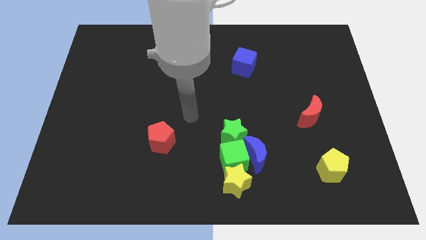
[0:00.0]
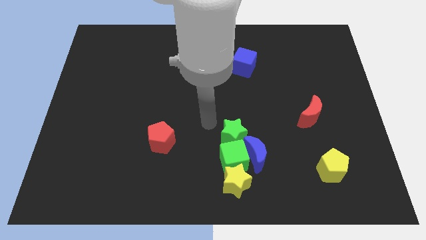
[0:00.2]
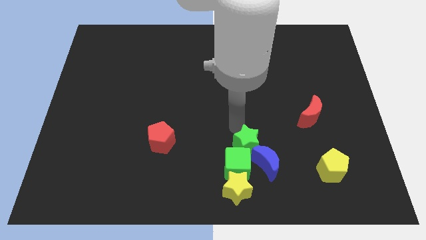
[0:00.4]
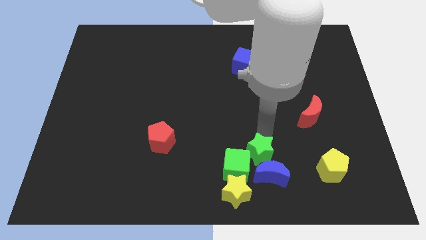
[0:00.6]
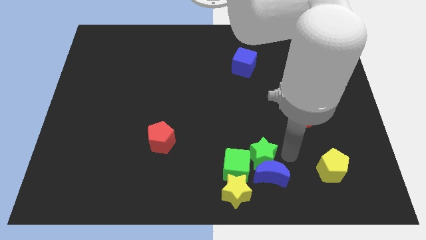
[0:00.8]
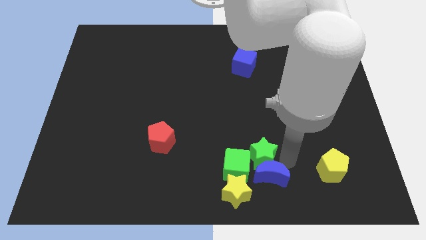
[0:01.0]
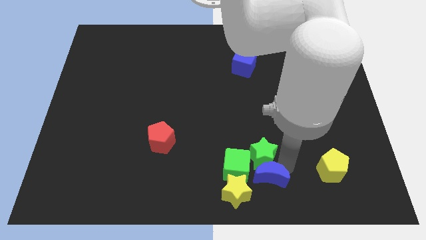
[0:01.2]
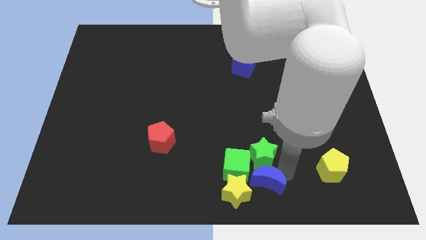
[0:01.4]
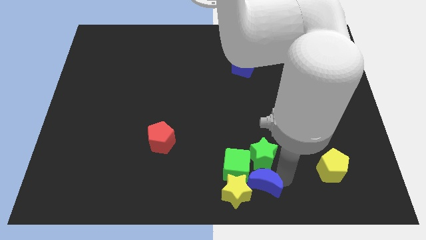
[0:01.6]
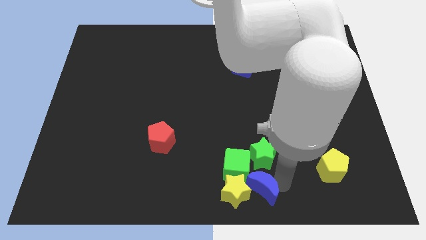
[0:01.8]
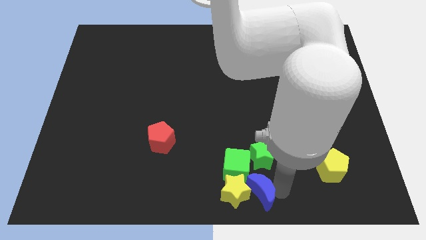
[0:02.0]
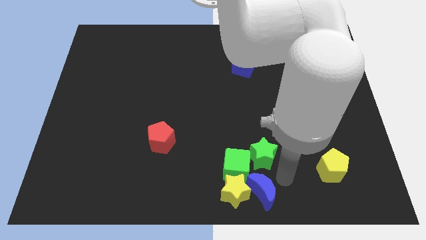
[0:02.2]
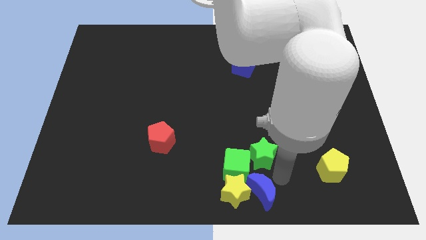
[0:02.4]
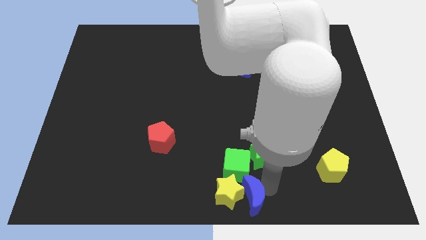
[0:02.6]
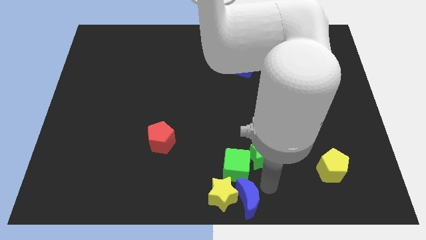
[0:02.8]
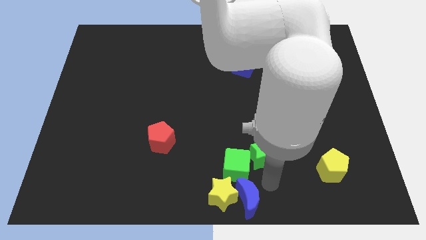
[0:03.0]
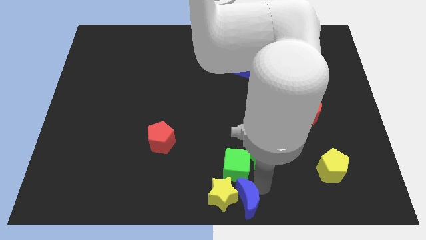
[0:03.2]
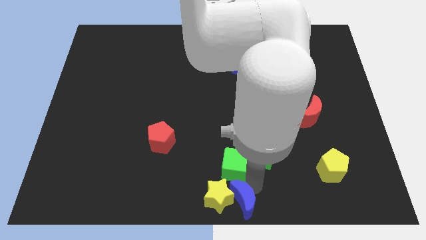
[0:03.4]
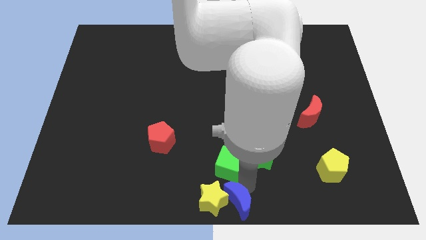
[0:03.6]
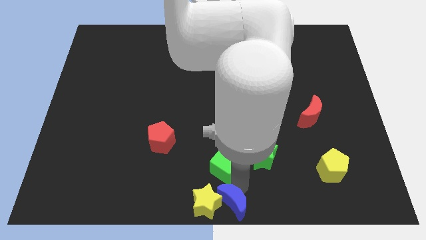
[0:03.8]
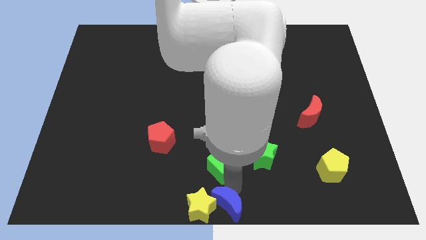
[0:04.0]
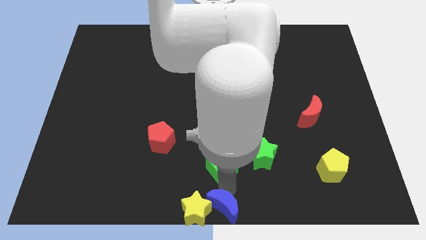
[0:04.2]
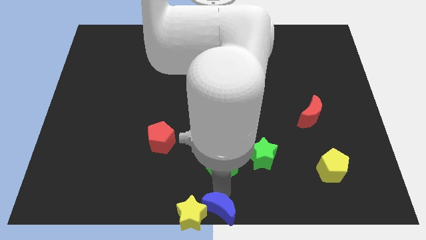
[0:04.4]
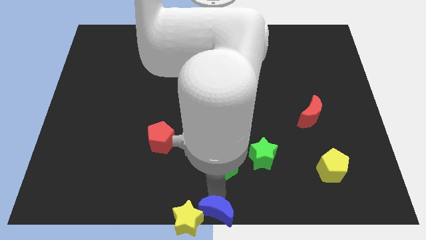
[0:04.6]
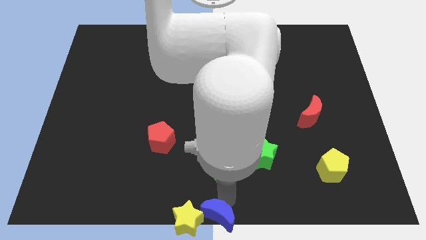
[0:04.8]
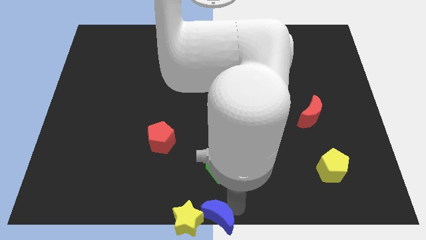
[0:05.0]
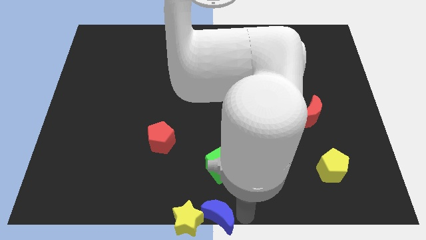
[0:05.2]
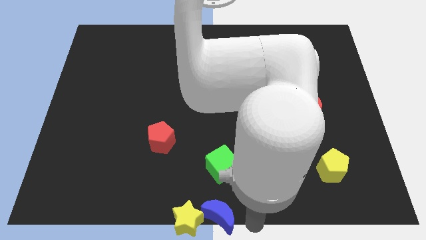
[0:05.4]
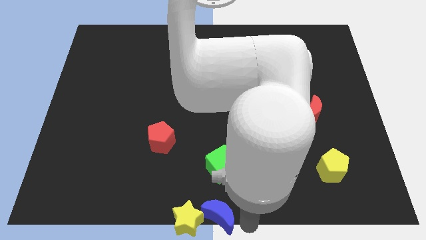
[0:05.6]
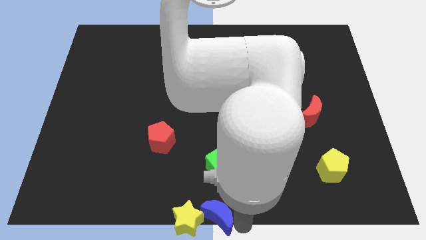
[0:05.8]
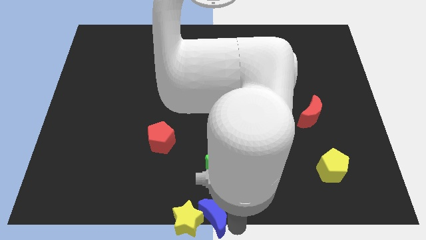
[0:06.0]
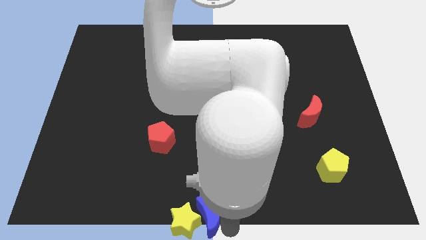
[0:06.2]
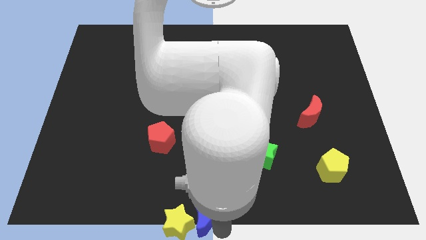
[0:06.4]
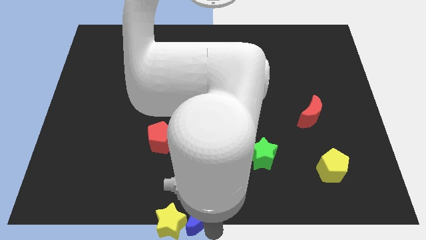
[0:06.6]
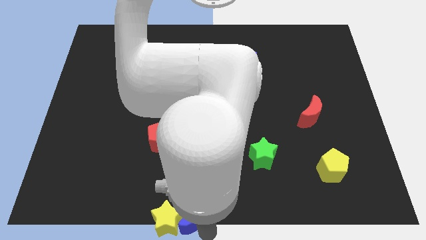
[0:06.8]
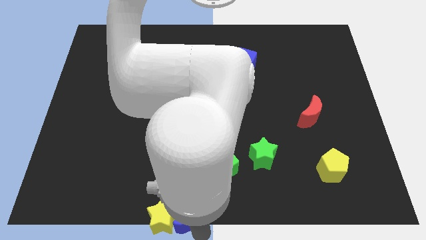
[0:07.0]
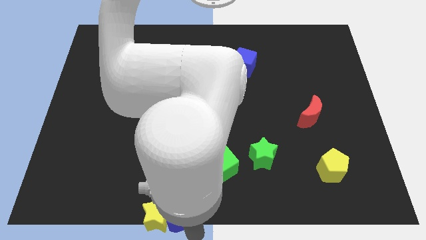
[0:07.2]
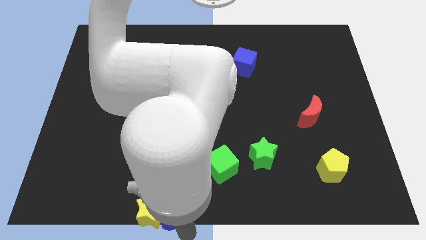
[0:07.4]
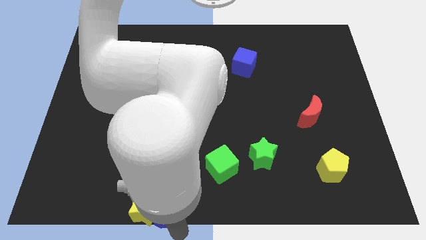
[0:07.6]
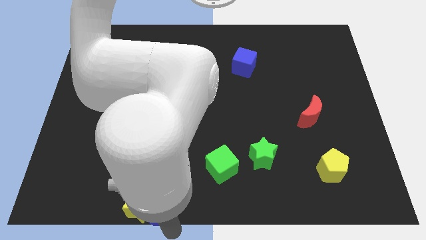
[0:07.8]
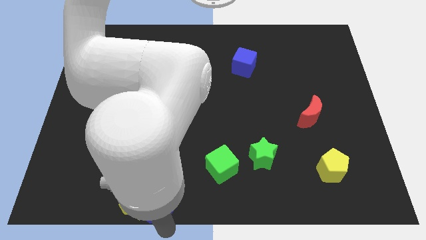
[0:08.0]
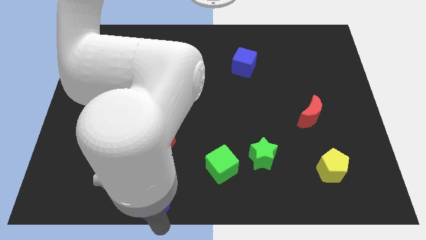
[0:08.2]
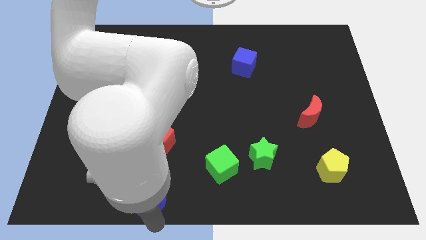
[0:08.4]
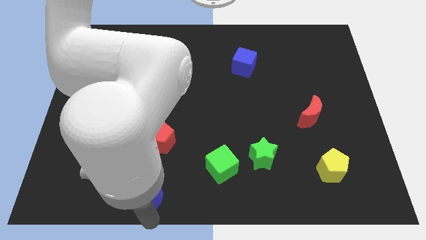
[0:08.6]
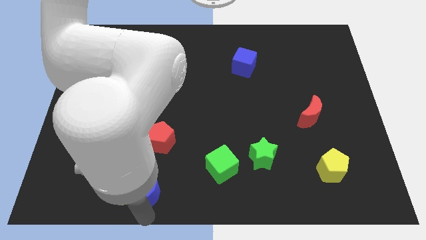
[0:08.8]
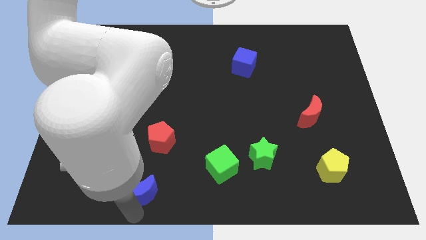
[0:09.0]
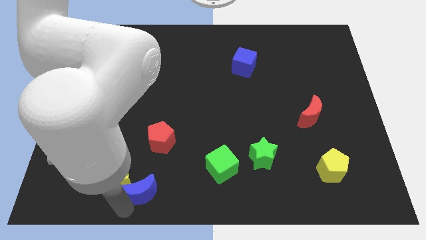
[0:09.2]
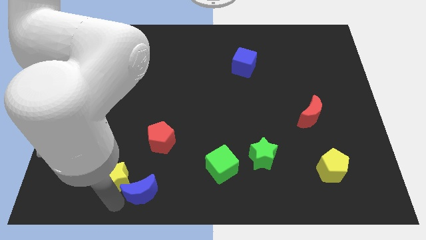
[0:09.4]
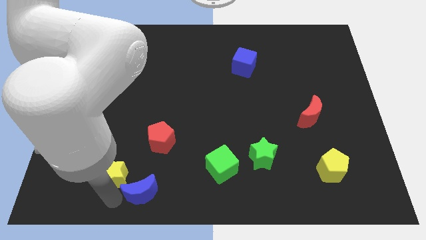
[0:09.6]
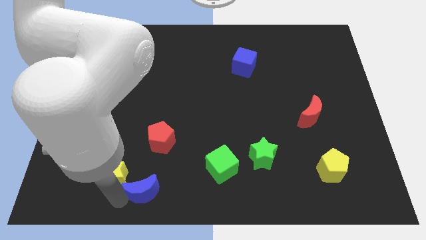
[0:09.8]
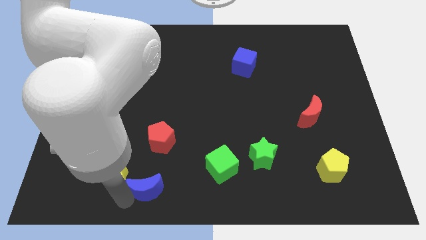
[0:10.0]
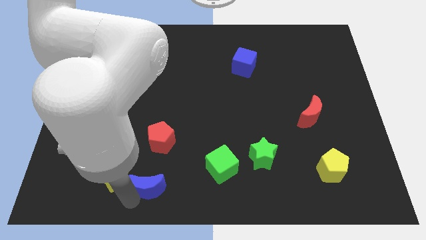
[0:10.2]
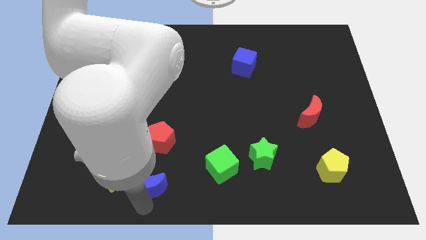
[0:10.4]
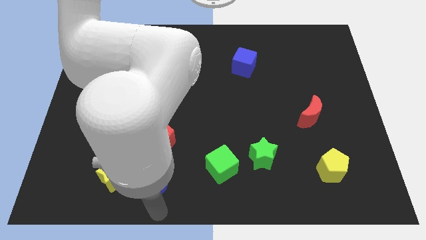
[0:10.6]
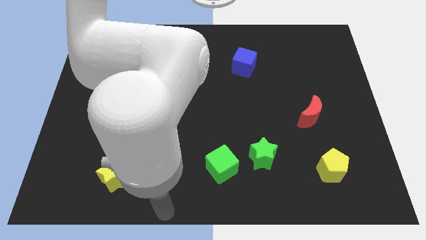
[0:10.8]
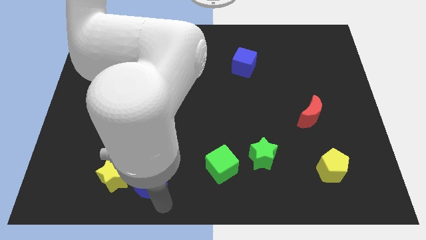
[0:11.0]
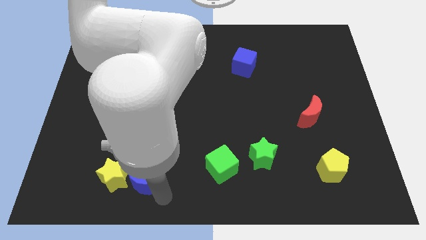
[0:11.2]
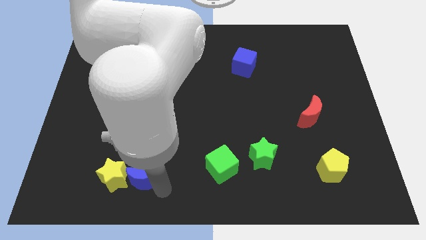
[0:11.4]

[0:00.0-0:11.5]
push the blue moon diagonally down and to the left of the red pentagon

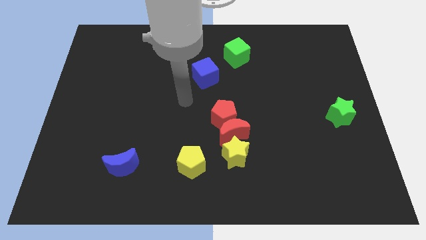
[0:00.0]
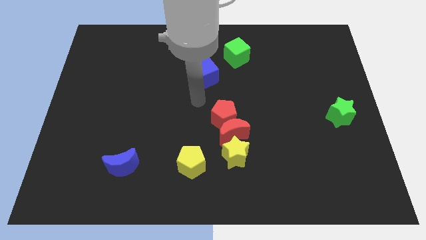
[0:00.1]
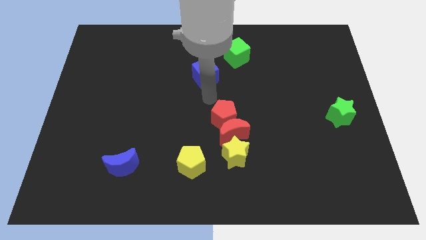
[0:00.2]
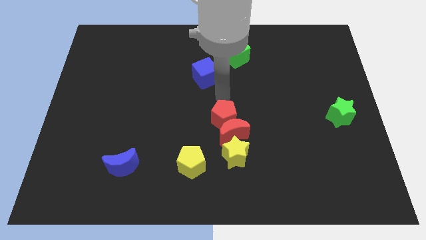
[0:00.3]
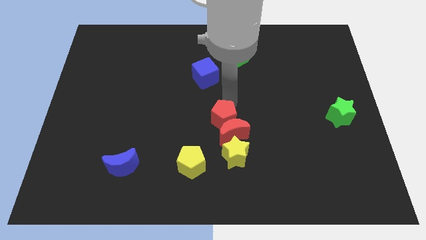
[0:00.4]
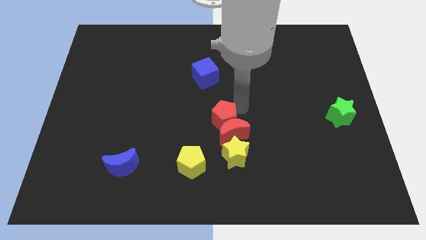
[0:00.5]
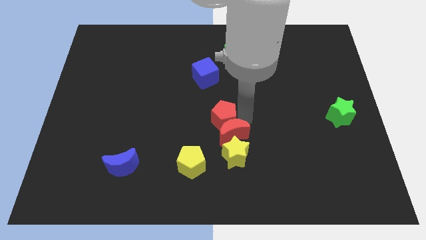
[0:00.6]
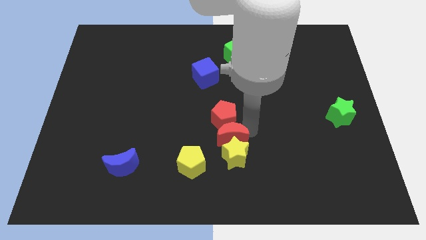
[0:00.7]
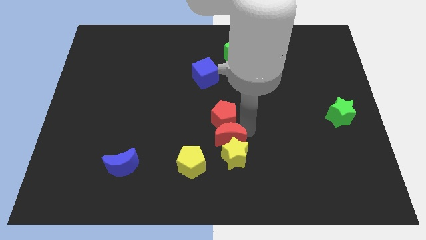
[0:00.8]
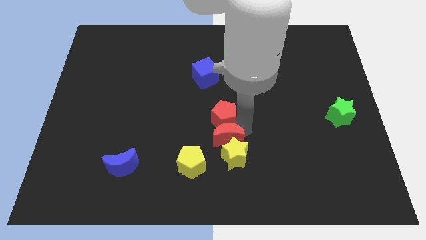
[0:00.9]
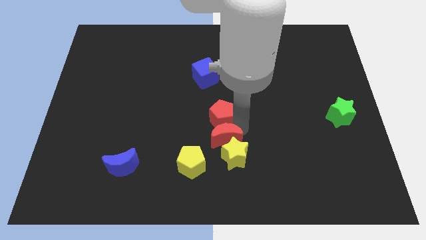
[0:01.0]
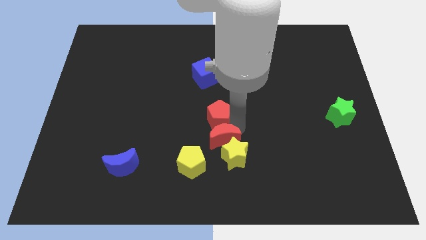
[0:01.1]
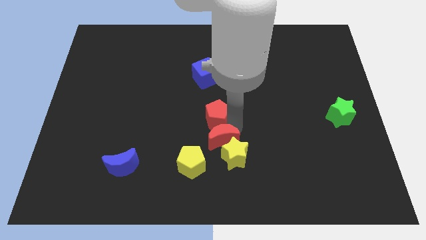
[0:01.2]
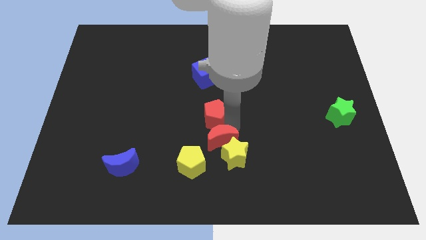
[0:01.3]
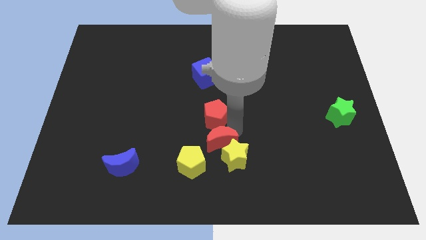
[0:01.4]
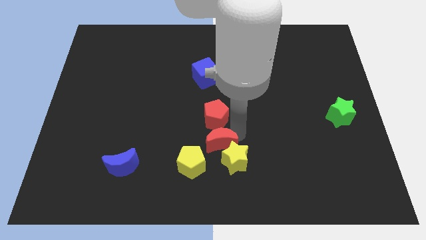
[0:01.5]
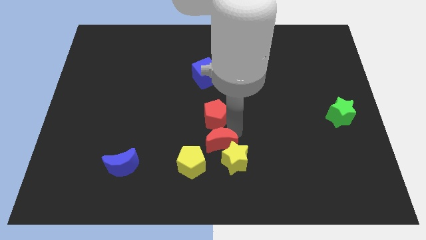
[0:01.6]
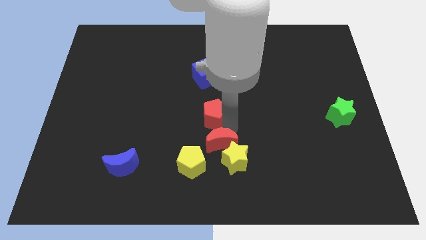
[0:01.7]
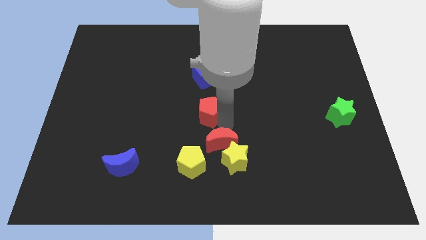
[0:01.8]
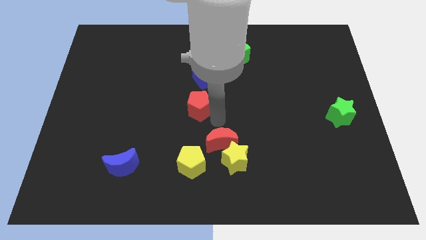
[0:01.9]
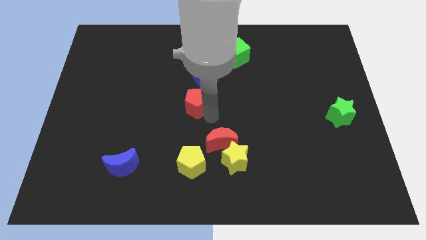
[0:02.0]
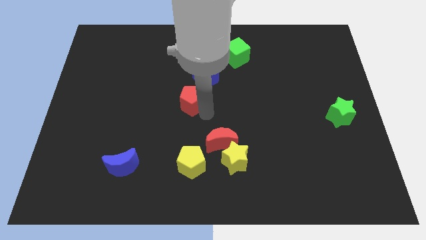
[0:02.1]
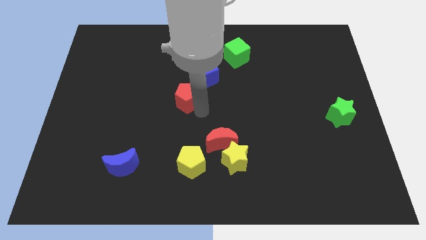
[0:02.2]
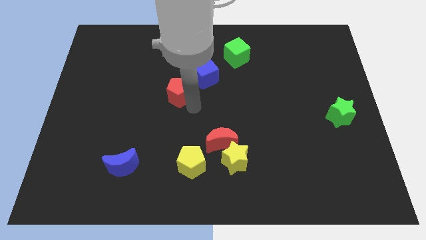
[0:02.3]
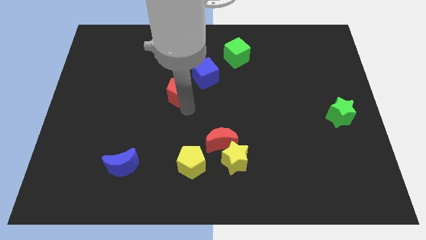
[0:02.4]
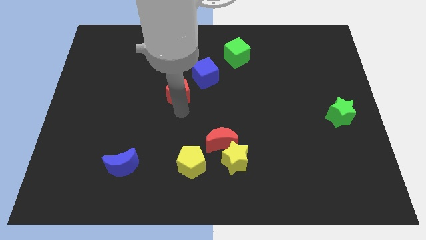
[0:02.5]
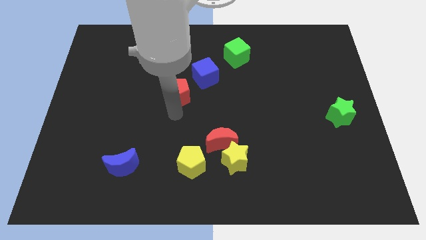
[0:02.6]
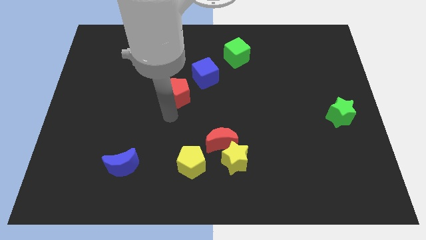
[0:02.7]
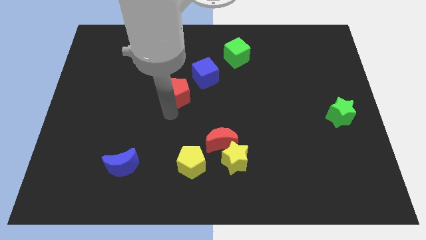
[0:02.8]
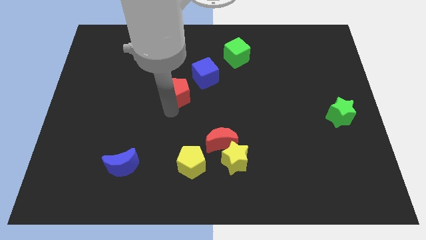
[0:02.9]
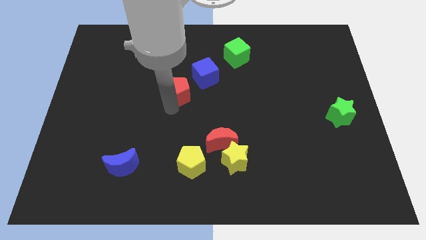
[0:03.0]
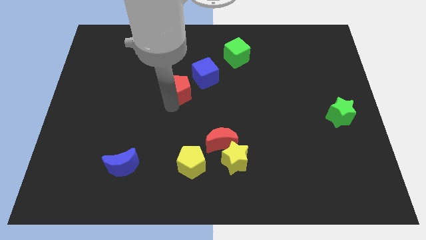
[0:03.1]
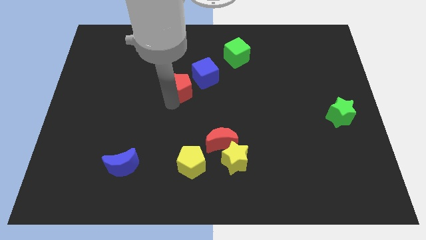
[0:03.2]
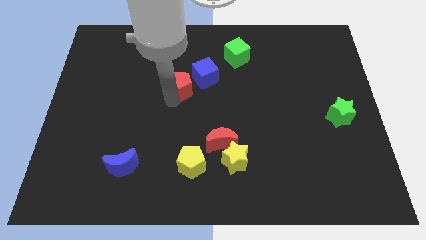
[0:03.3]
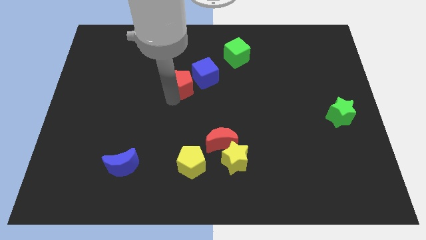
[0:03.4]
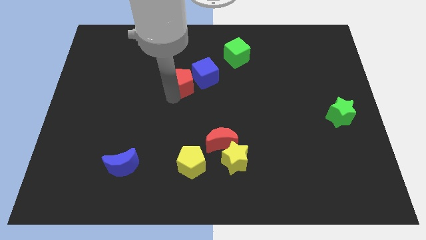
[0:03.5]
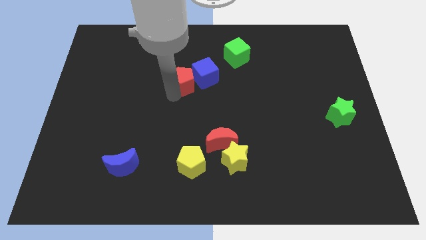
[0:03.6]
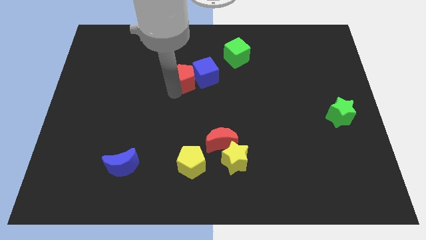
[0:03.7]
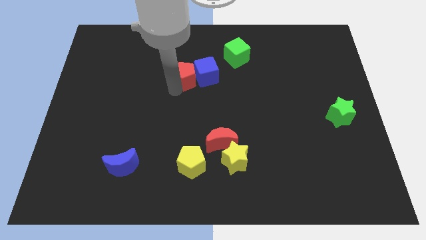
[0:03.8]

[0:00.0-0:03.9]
slide the red pentagon diagonally up and to the left of the blue cube
